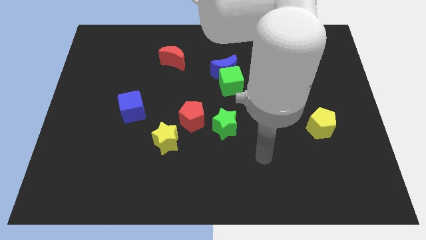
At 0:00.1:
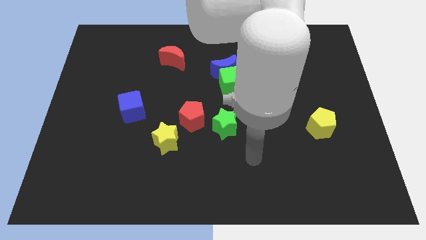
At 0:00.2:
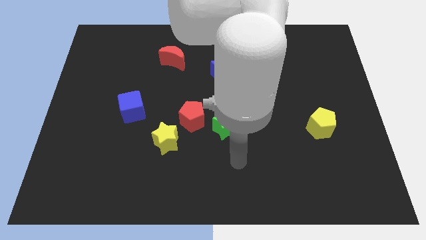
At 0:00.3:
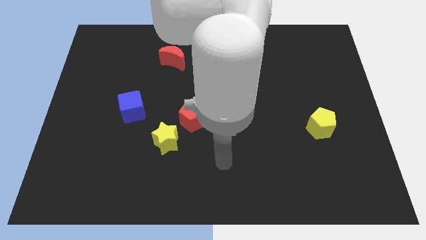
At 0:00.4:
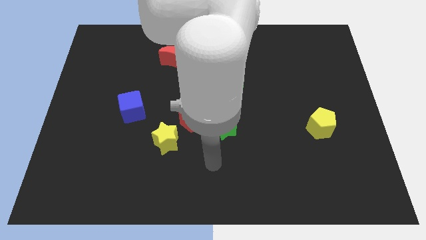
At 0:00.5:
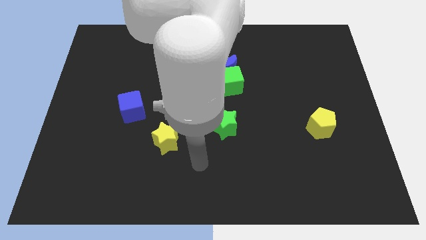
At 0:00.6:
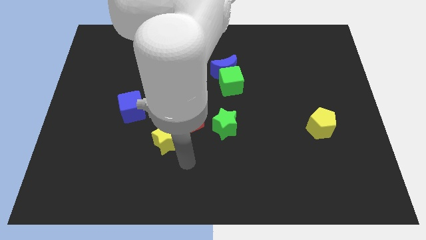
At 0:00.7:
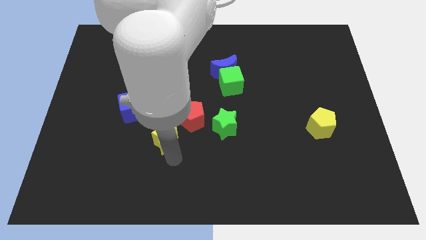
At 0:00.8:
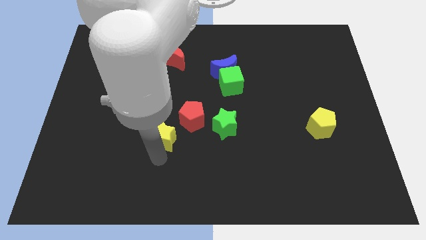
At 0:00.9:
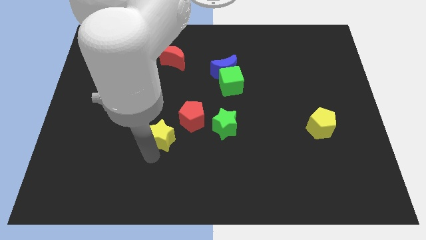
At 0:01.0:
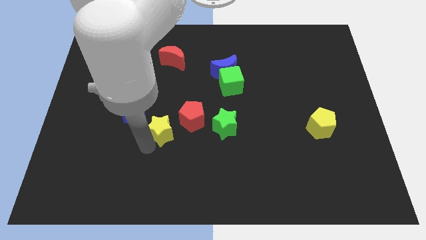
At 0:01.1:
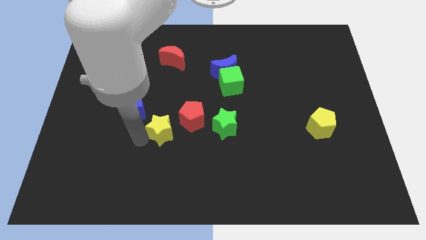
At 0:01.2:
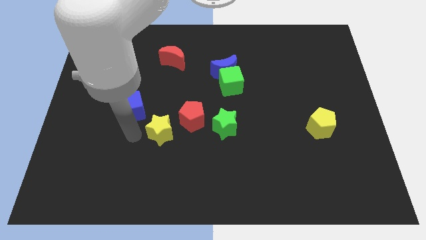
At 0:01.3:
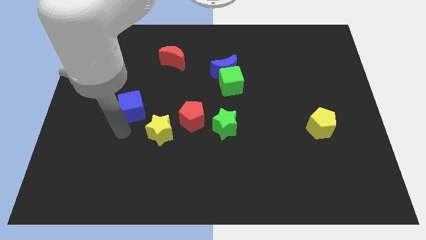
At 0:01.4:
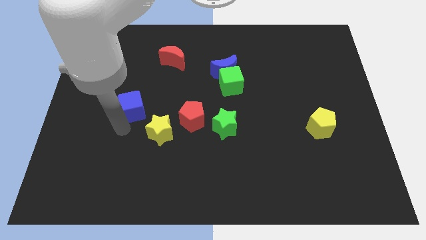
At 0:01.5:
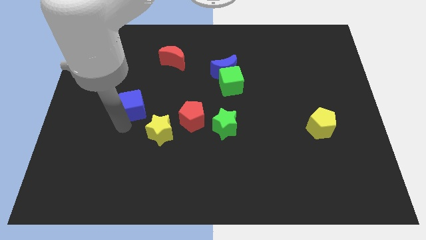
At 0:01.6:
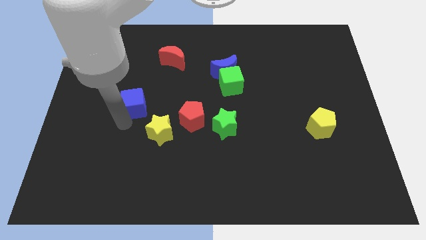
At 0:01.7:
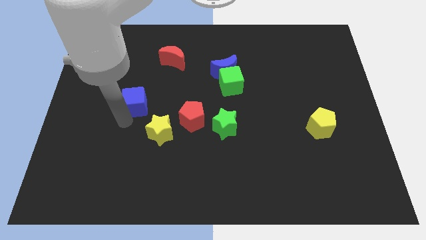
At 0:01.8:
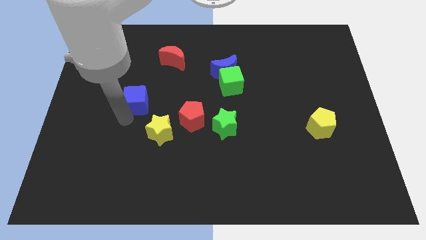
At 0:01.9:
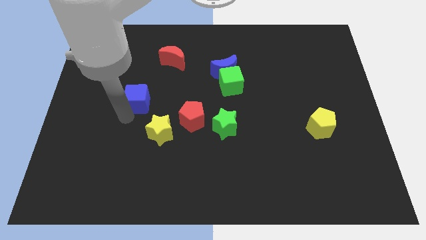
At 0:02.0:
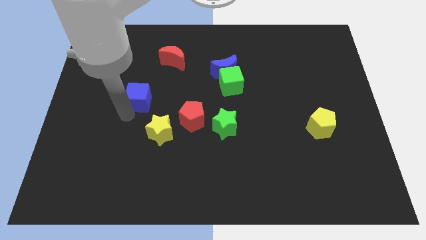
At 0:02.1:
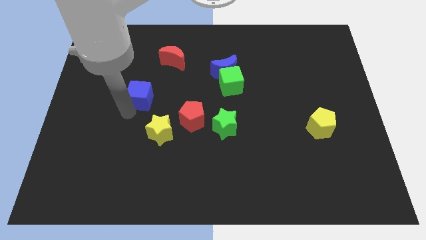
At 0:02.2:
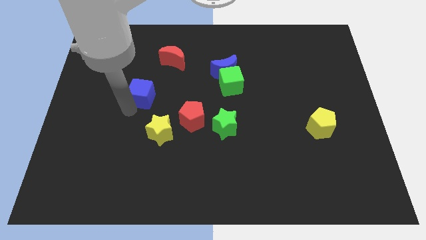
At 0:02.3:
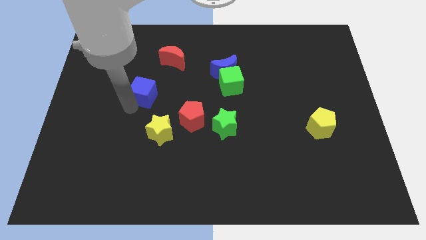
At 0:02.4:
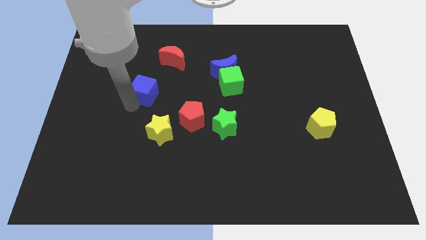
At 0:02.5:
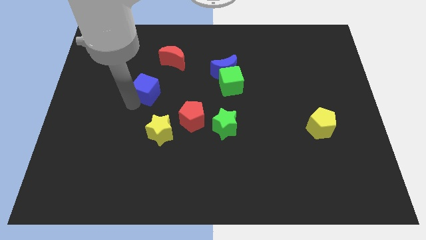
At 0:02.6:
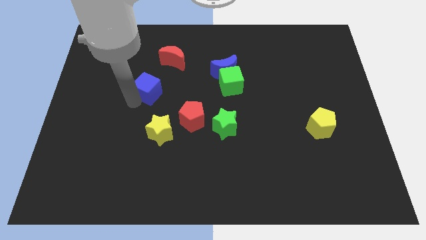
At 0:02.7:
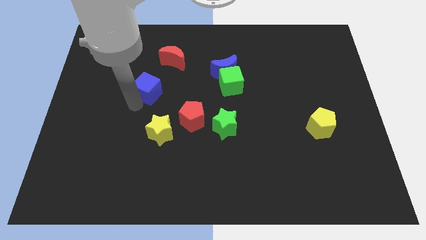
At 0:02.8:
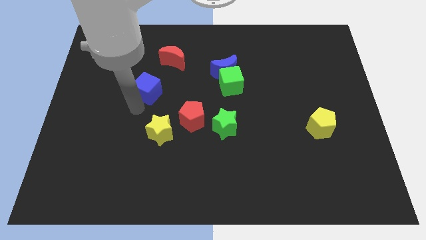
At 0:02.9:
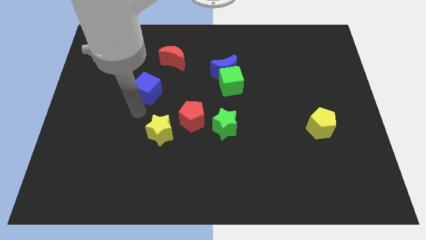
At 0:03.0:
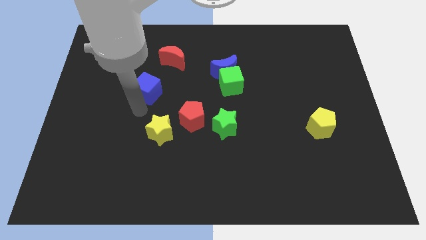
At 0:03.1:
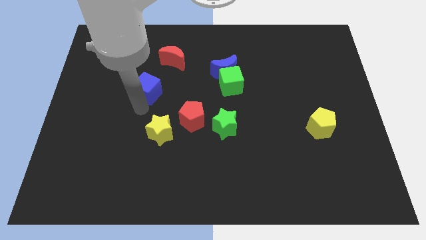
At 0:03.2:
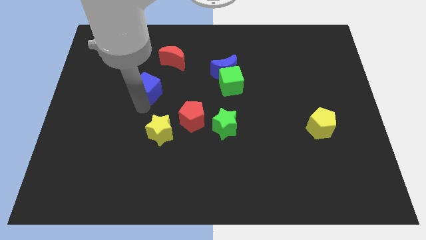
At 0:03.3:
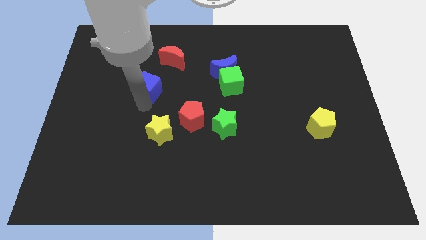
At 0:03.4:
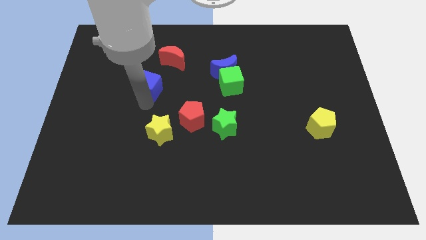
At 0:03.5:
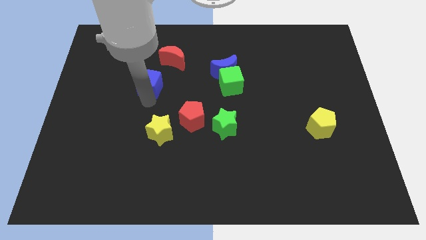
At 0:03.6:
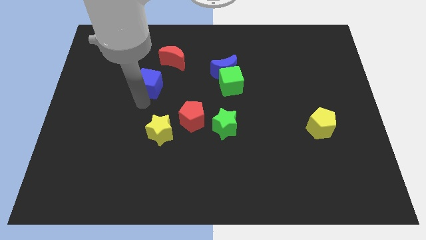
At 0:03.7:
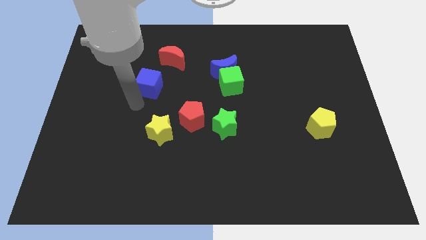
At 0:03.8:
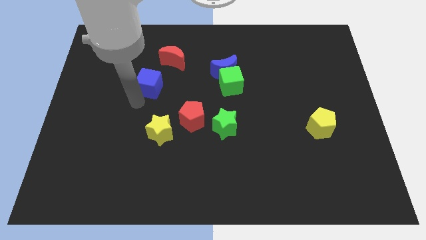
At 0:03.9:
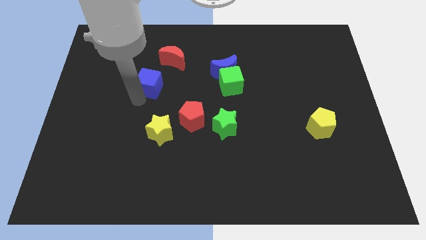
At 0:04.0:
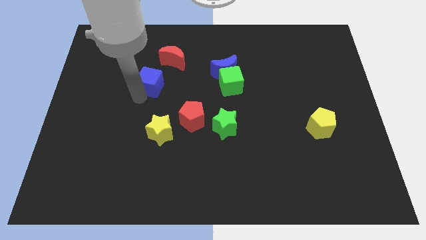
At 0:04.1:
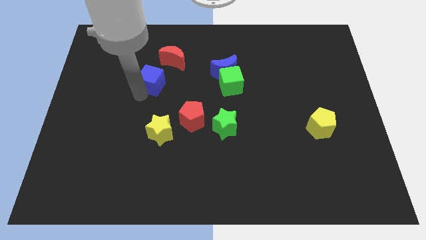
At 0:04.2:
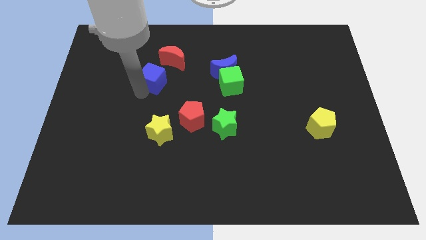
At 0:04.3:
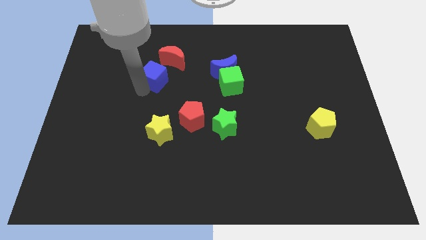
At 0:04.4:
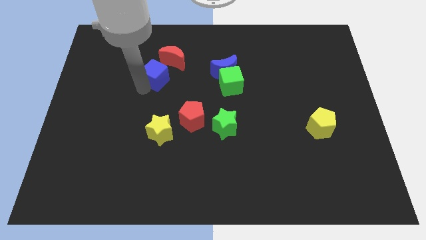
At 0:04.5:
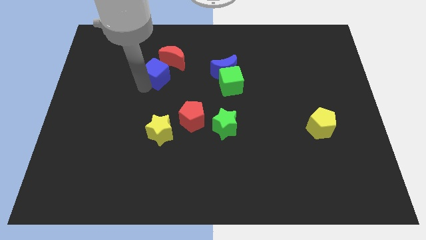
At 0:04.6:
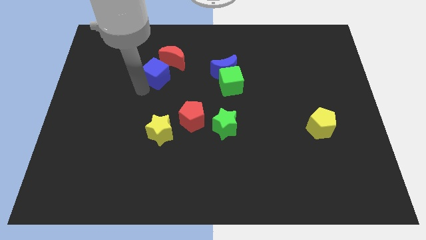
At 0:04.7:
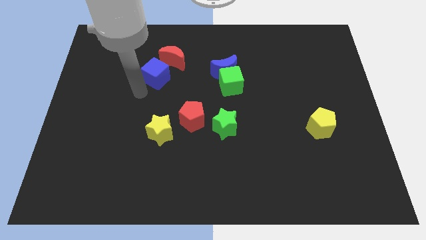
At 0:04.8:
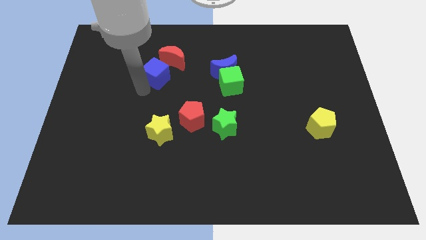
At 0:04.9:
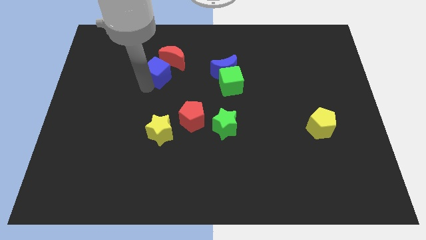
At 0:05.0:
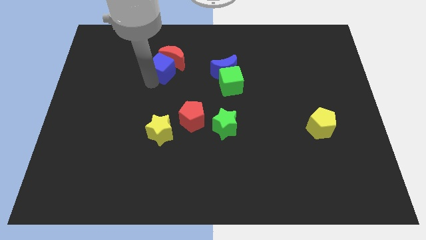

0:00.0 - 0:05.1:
move the blue cube next to the red moon
